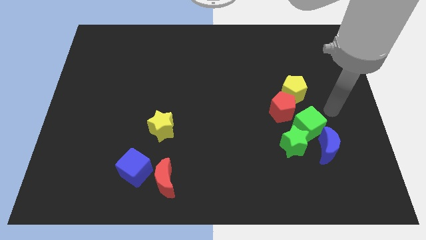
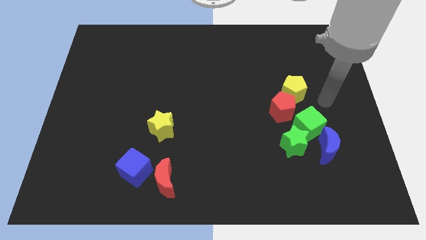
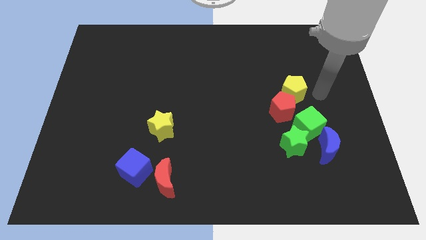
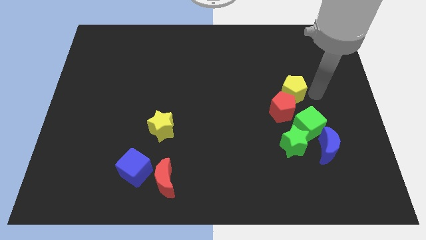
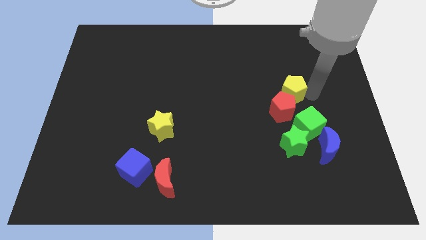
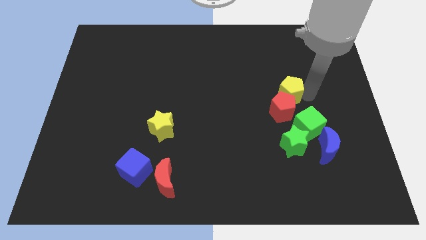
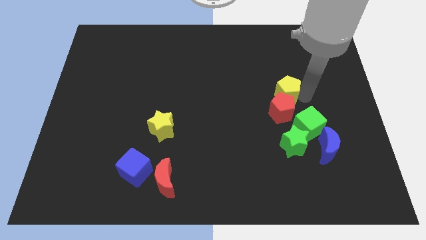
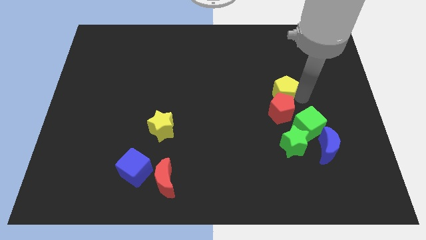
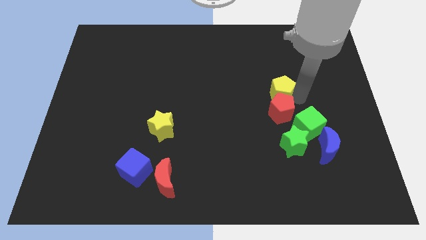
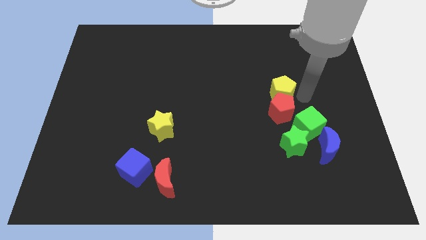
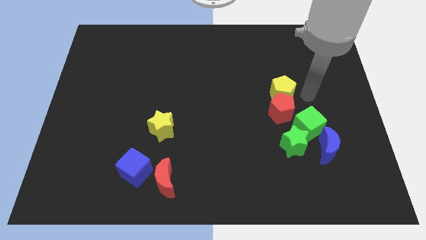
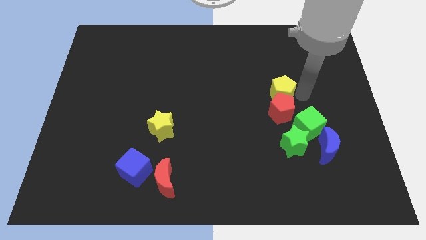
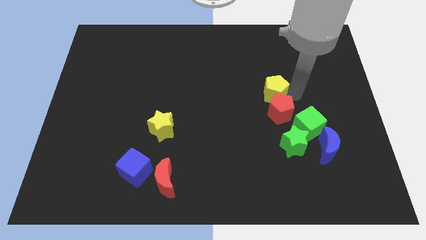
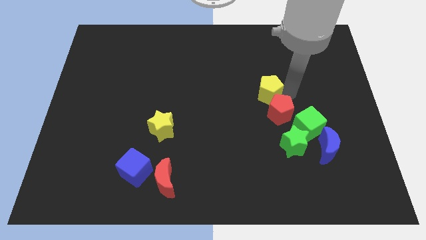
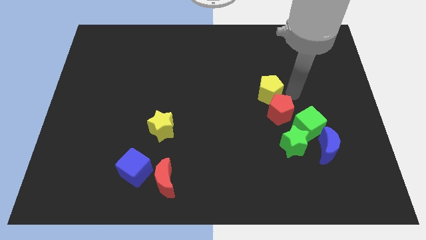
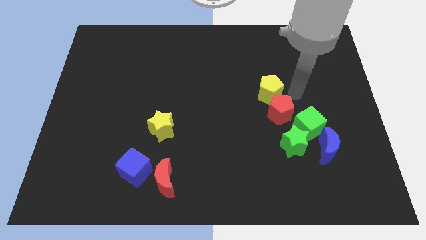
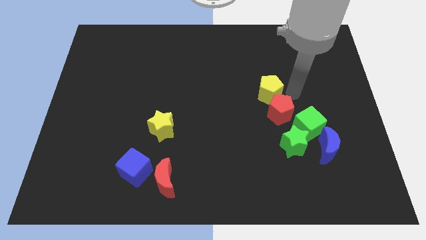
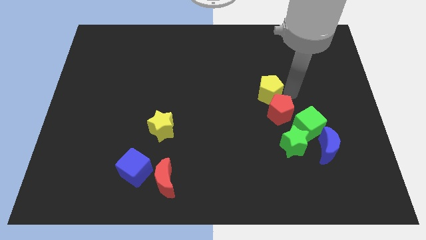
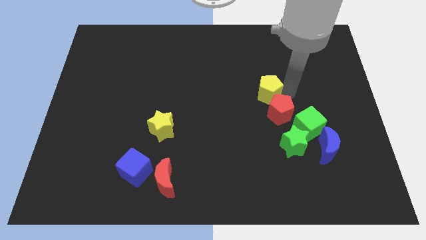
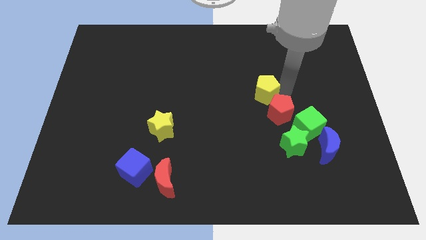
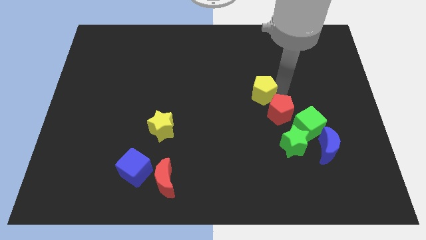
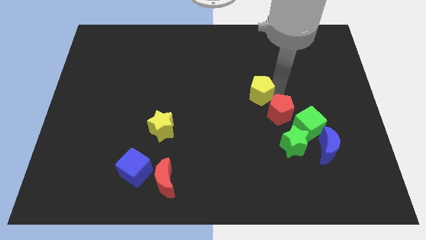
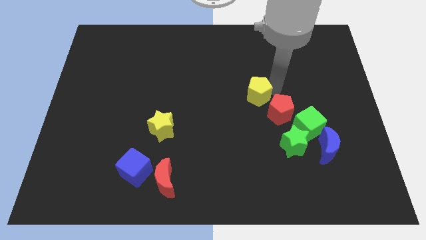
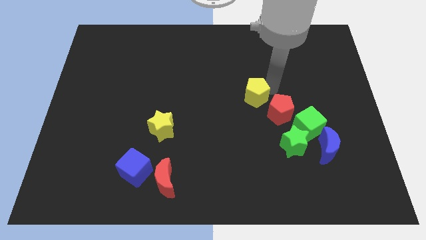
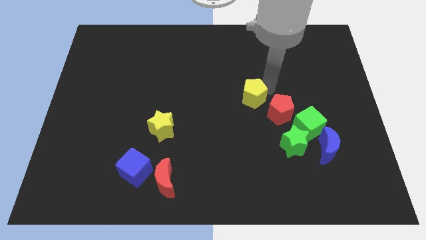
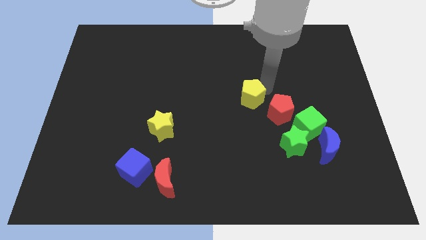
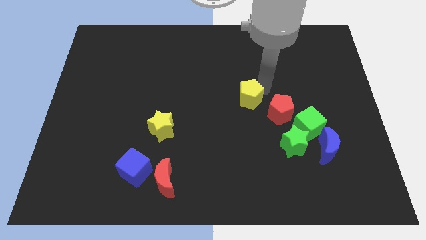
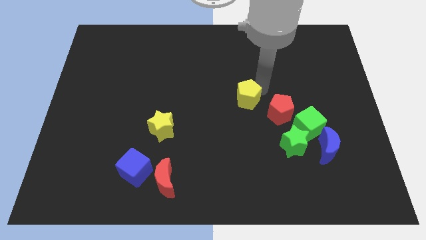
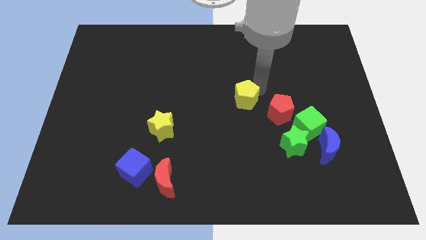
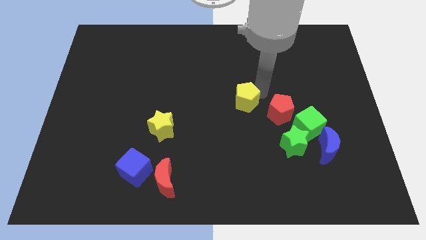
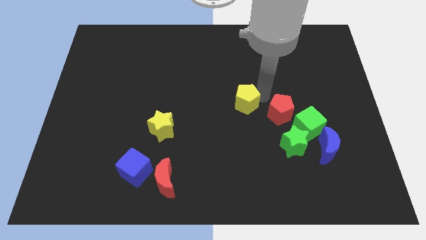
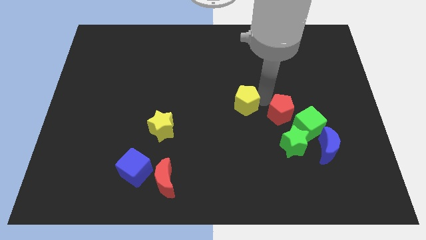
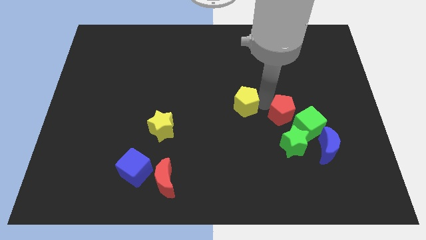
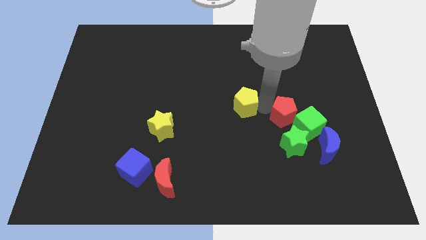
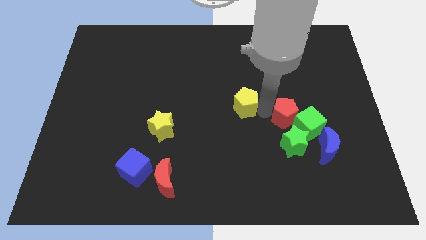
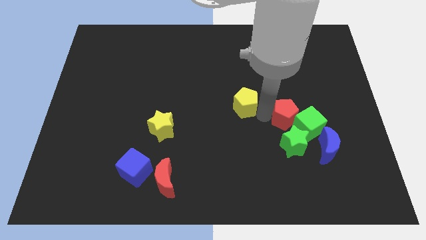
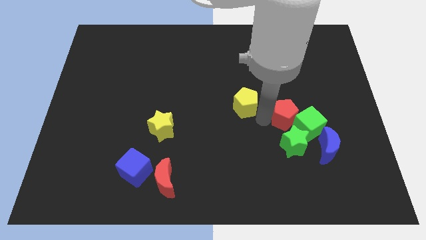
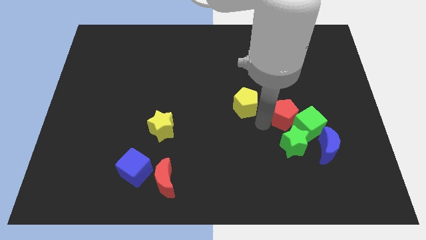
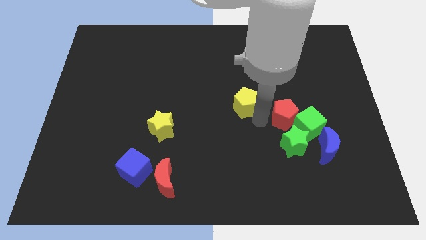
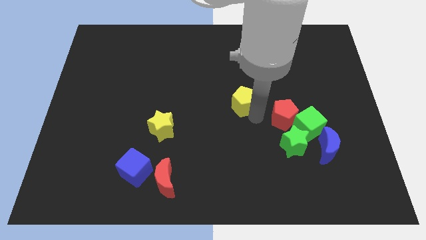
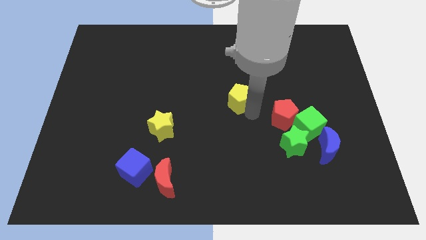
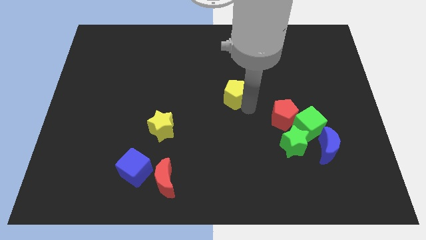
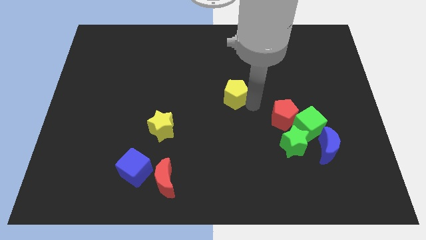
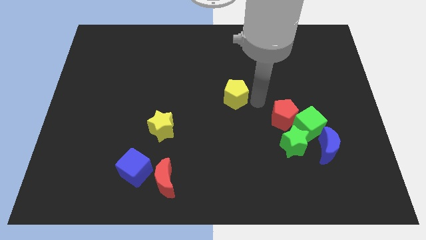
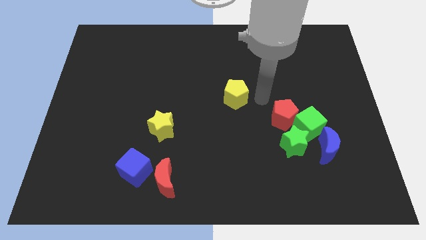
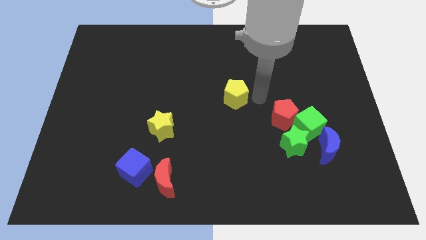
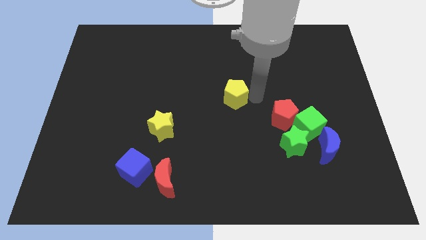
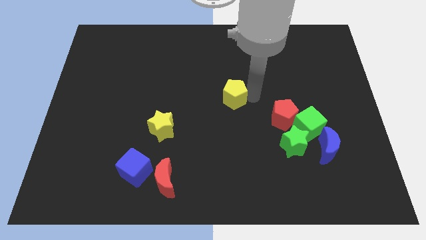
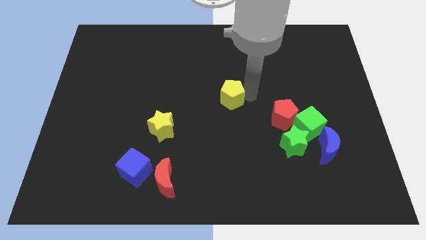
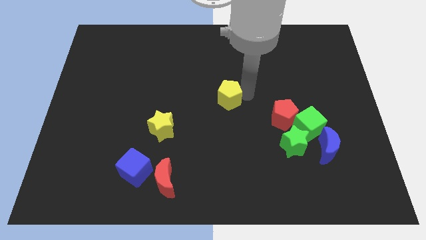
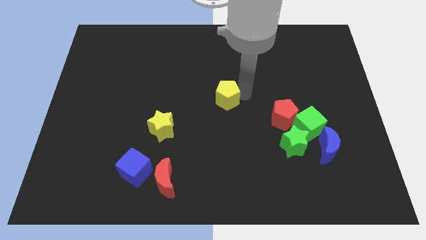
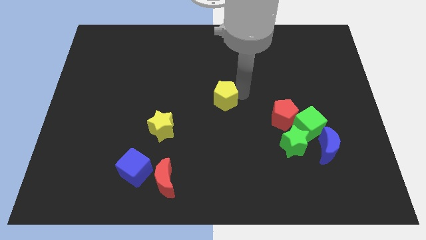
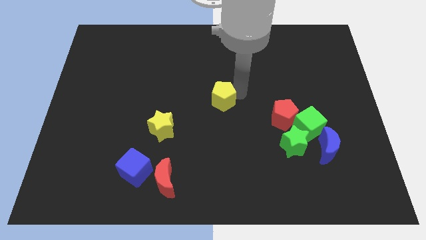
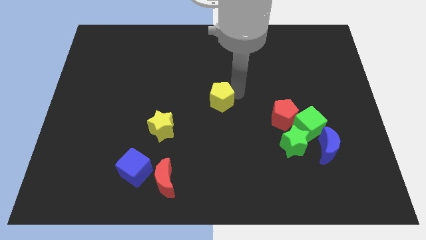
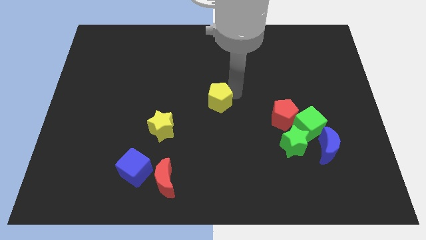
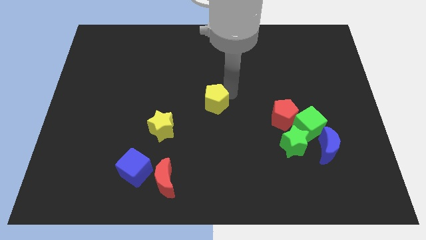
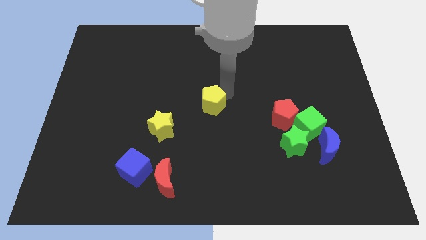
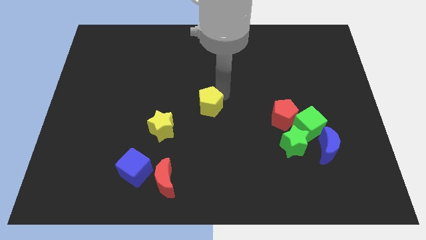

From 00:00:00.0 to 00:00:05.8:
push the yellow pentagon to the left

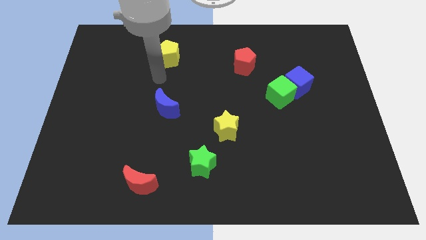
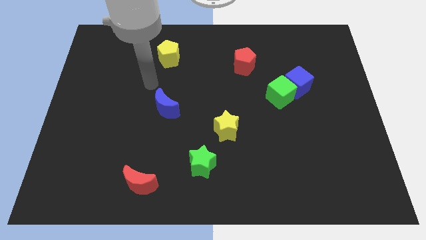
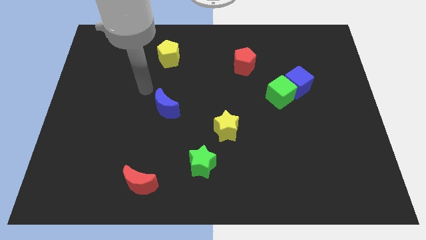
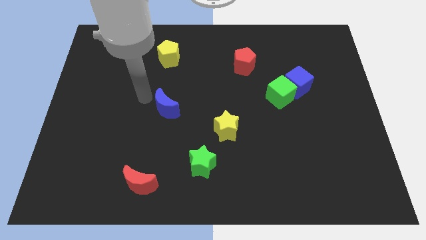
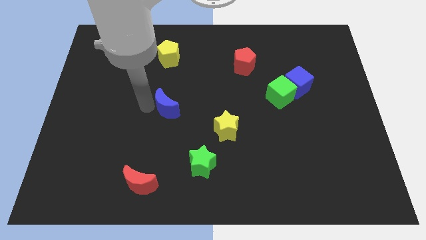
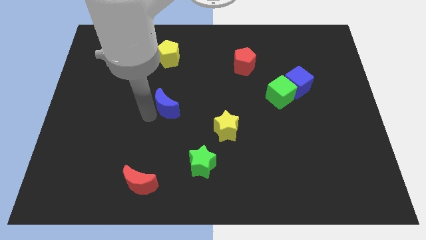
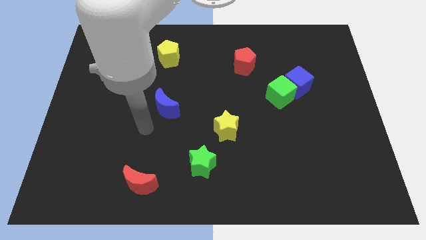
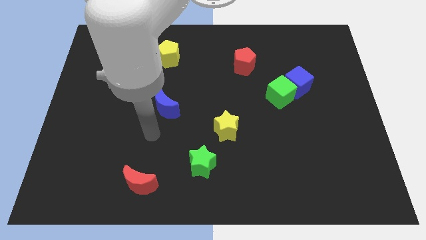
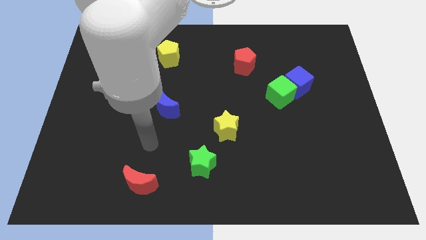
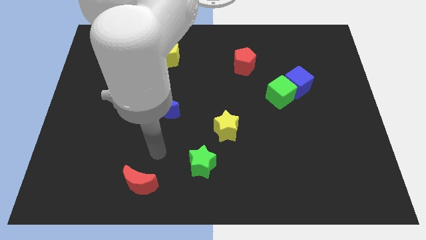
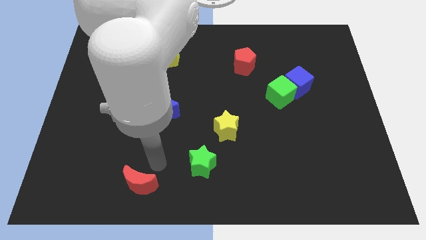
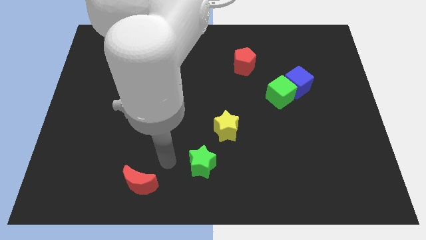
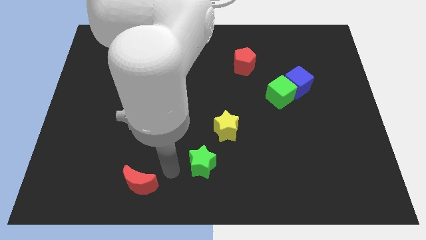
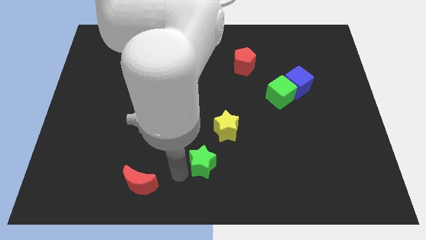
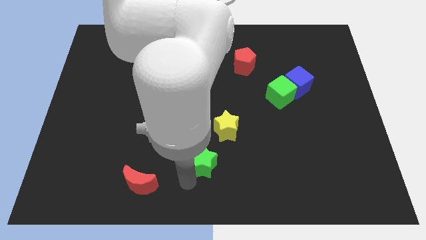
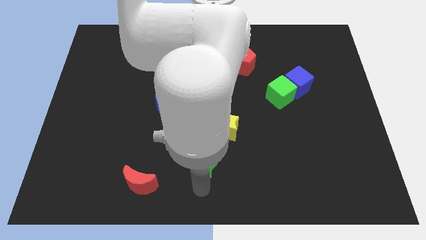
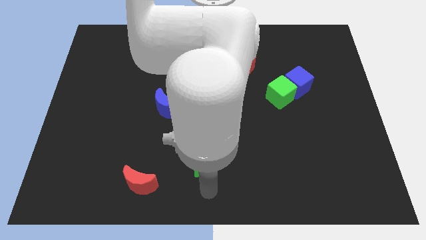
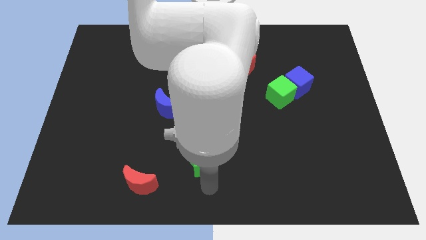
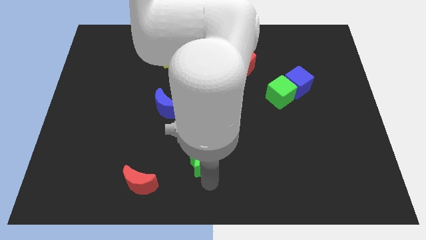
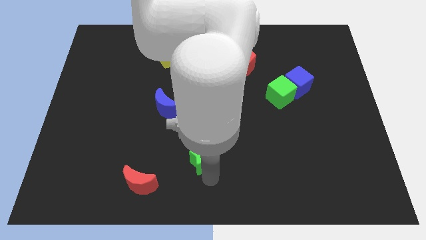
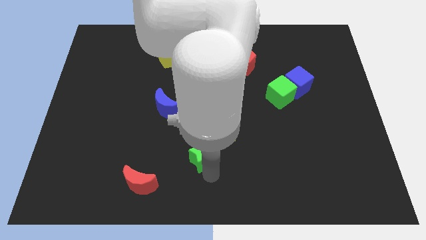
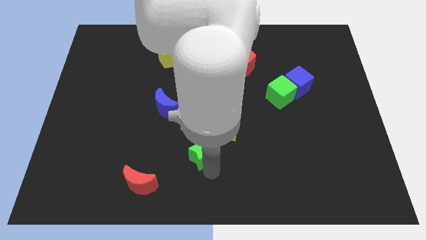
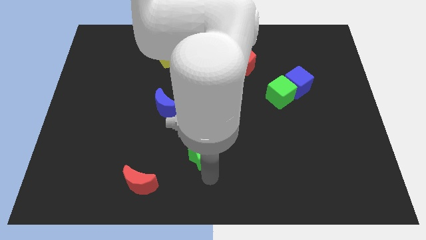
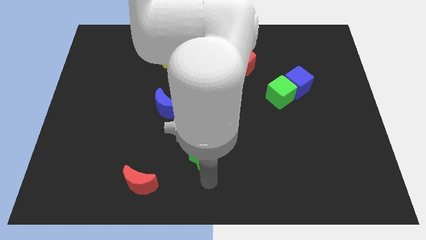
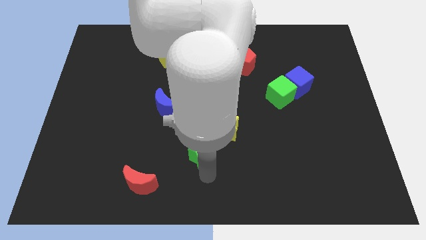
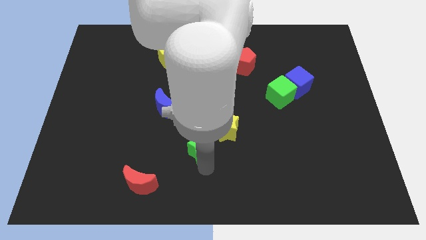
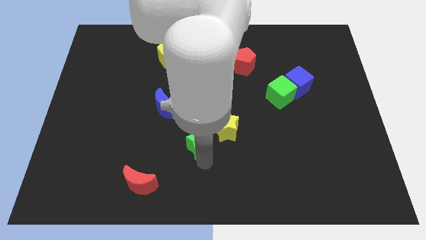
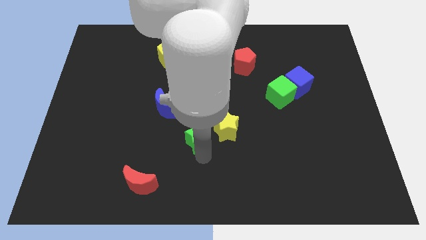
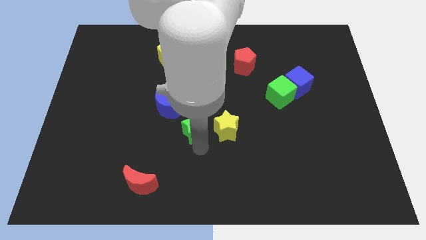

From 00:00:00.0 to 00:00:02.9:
move the green star a little up
